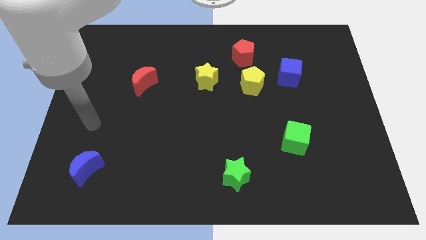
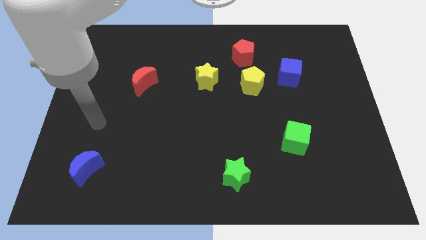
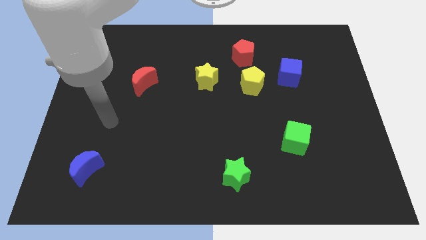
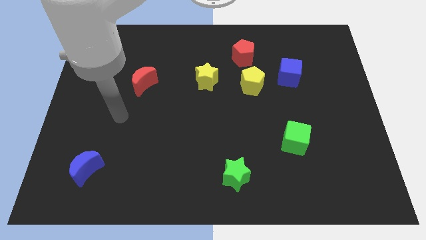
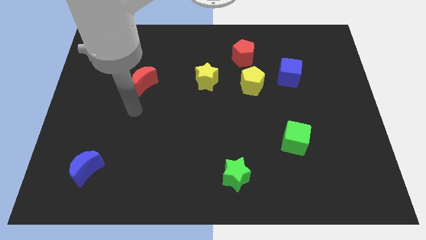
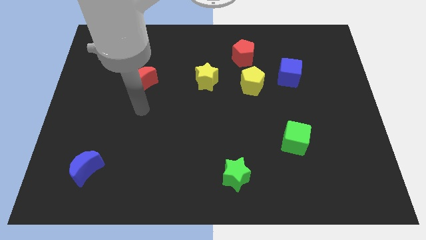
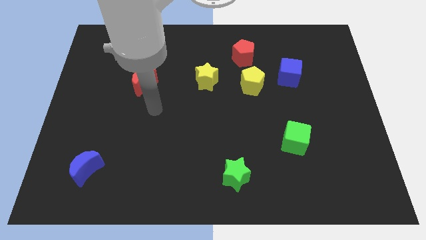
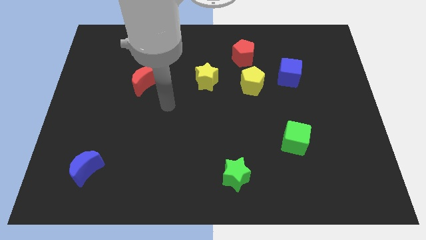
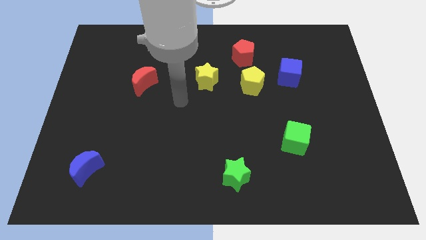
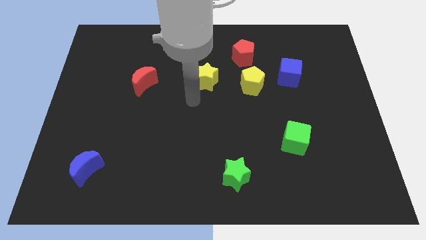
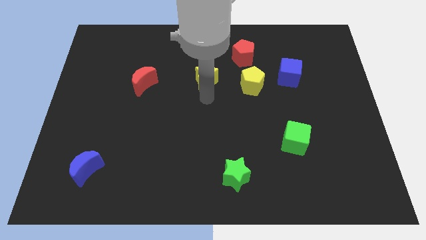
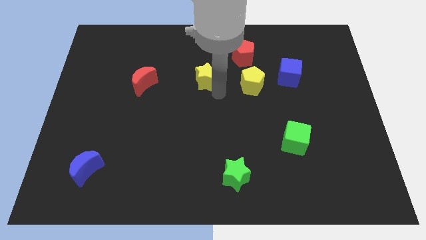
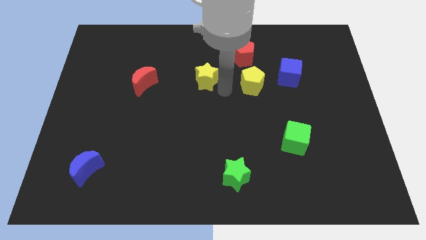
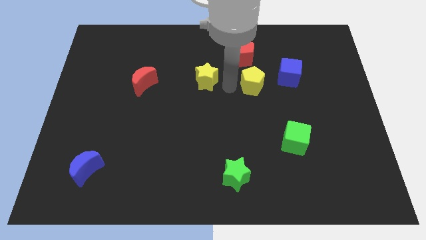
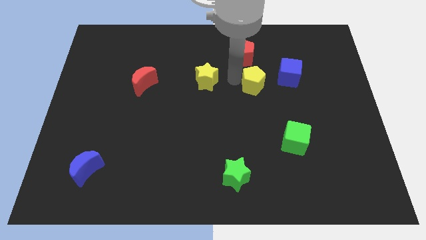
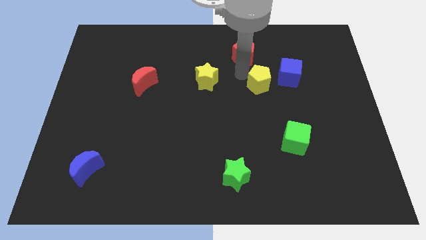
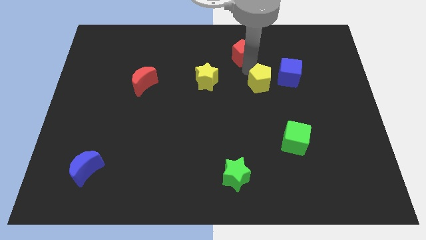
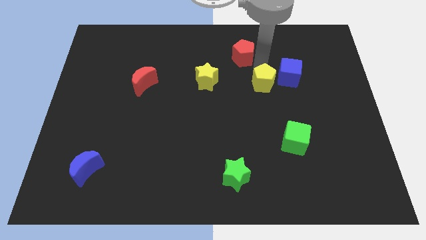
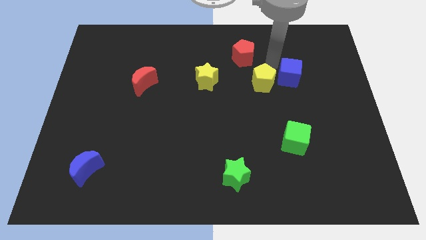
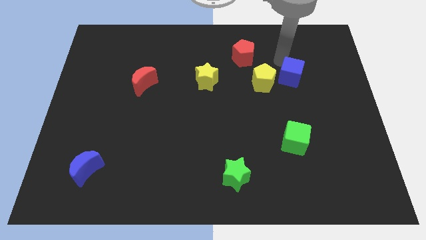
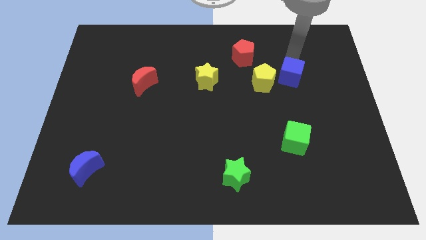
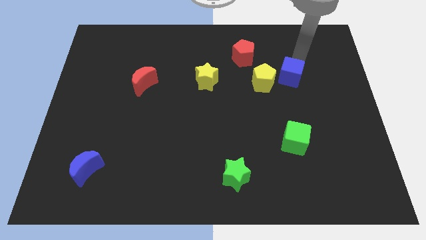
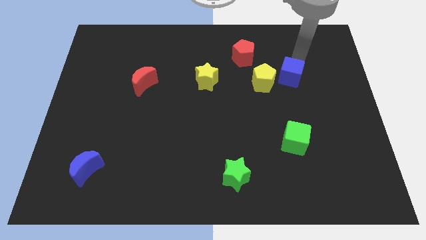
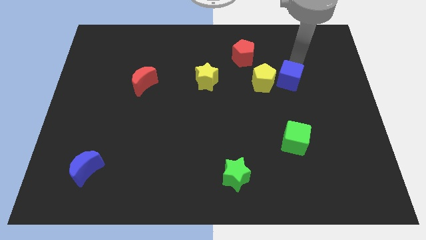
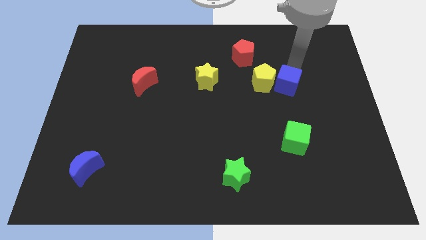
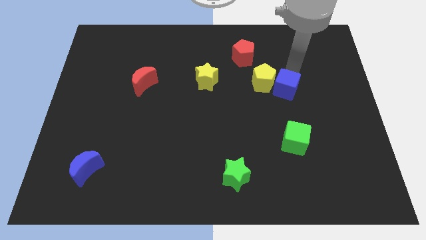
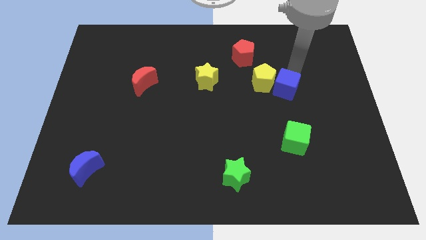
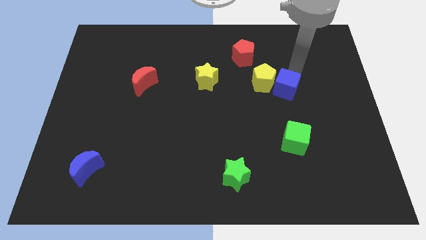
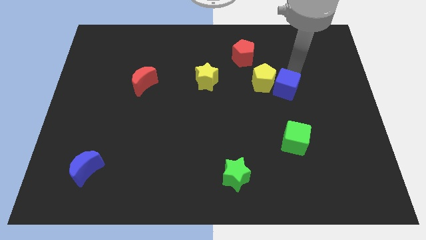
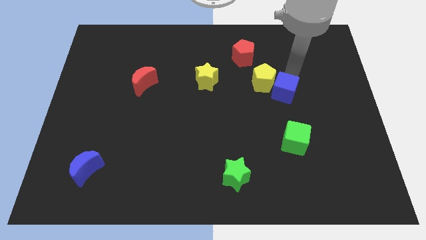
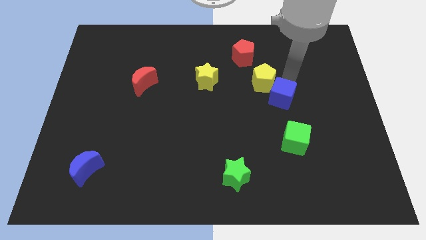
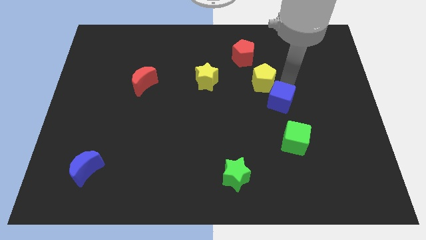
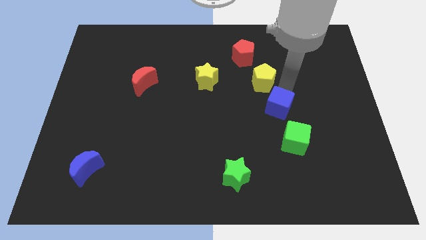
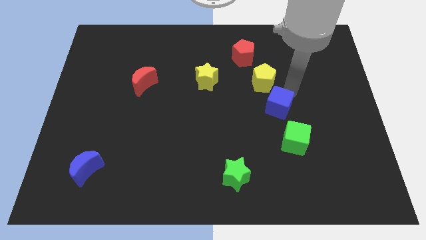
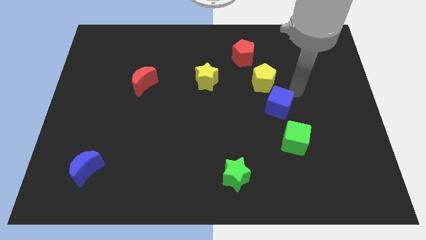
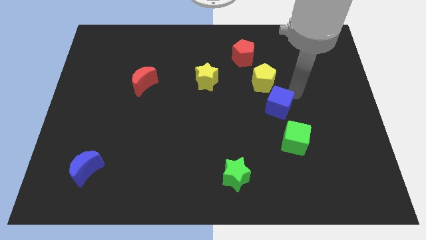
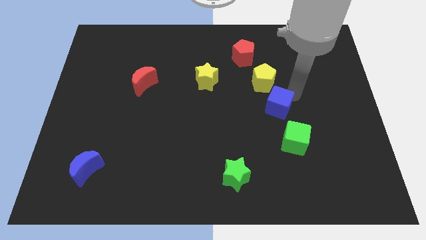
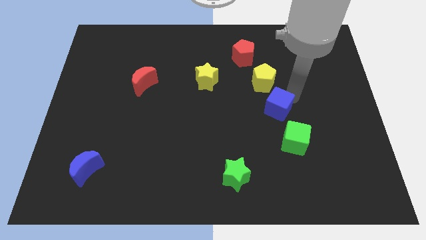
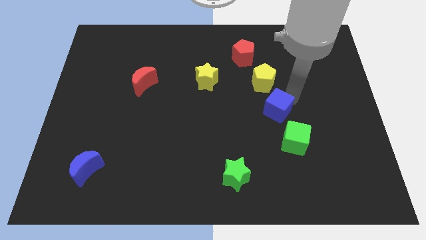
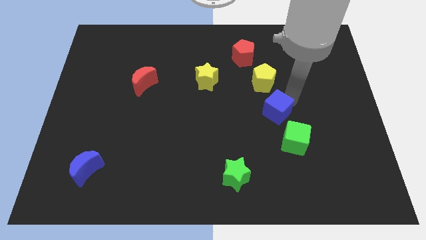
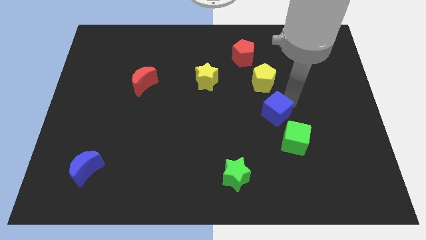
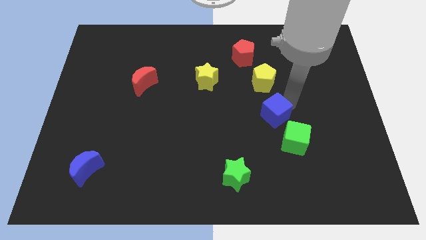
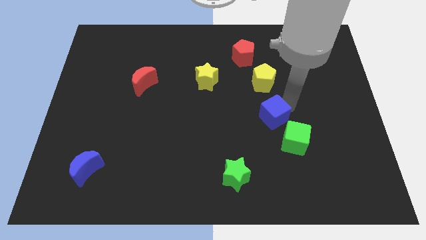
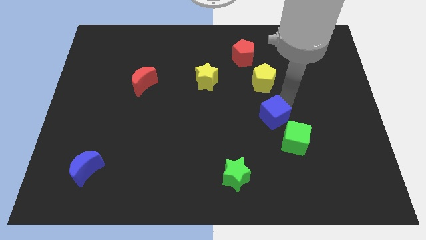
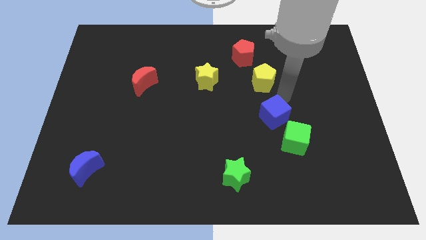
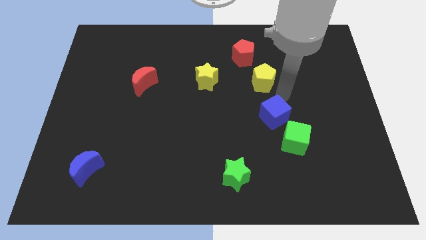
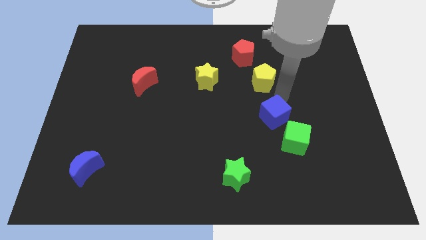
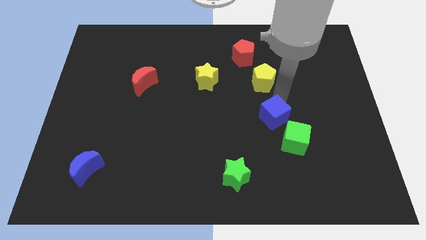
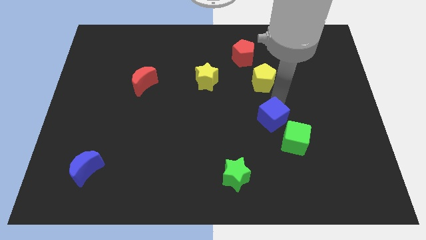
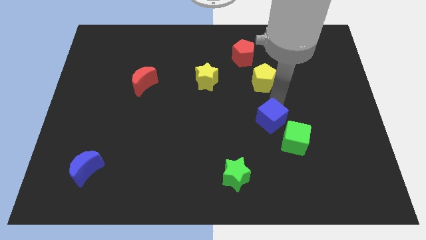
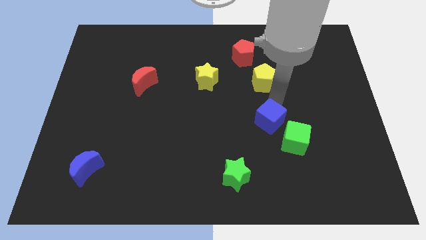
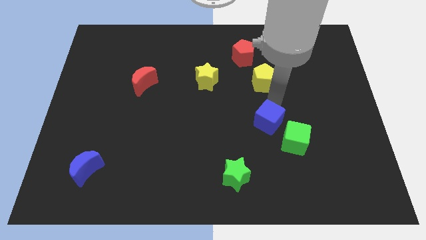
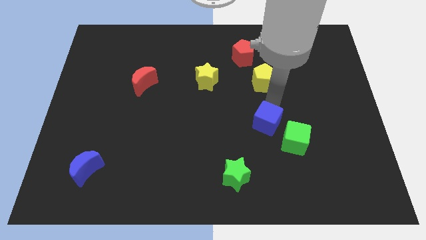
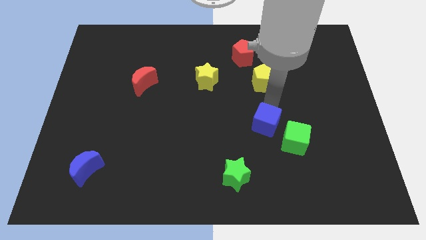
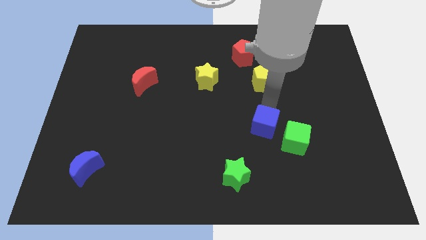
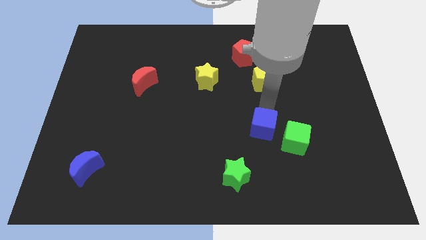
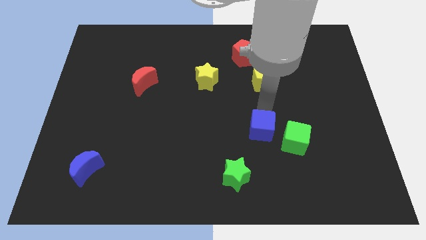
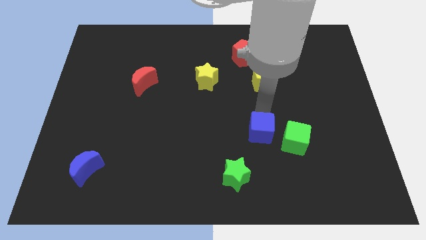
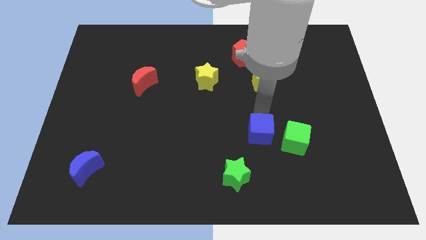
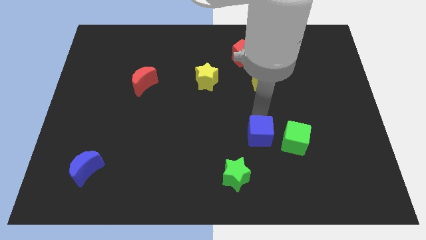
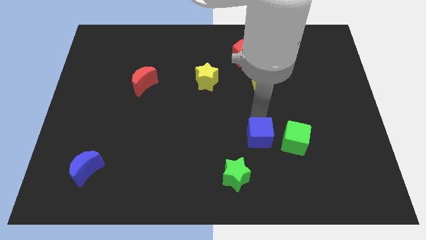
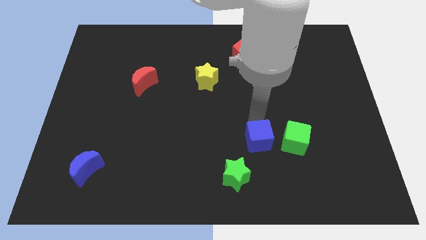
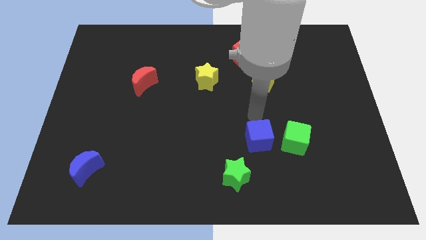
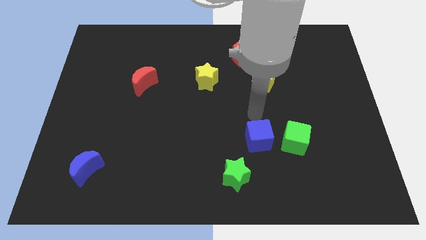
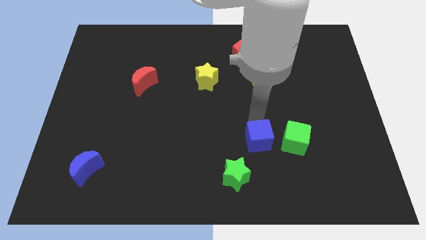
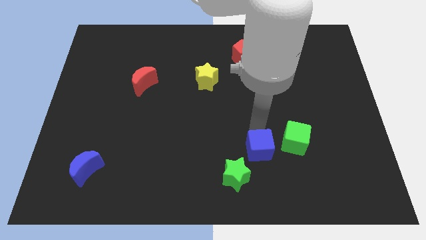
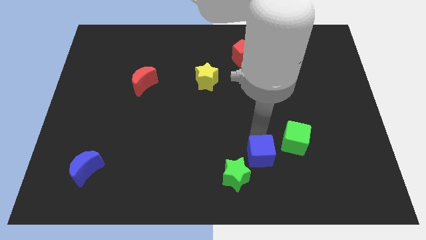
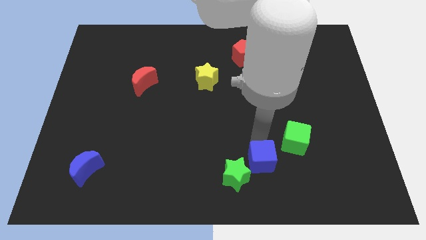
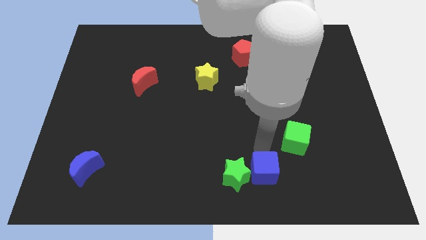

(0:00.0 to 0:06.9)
move the blue cube to the bottom
